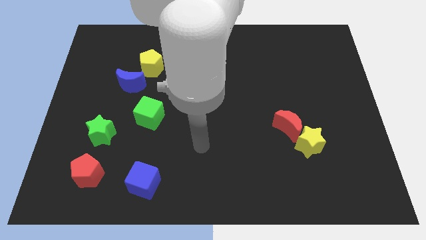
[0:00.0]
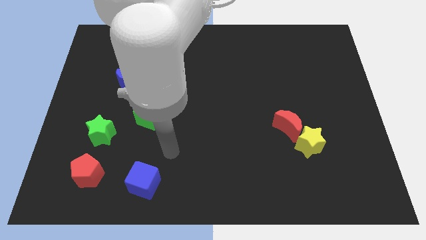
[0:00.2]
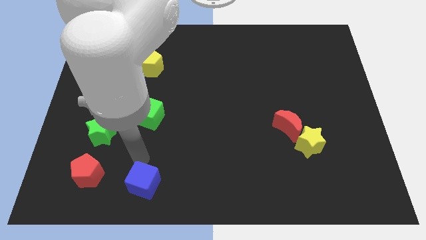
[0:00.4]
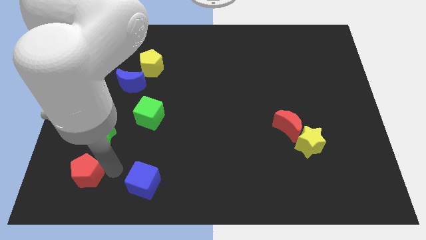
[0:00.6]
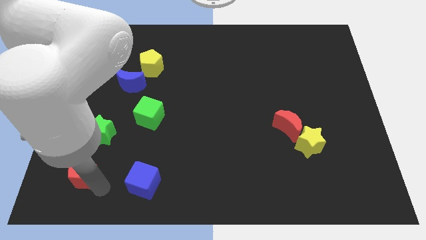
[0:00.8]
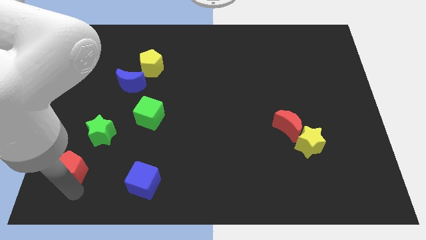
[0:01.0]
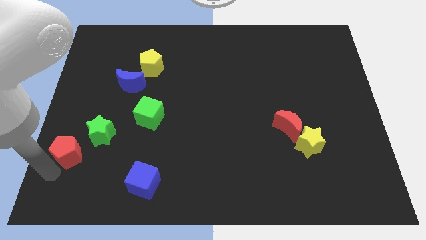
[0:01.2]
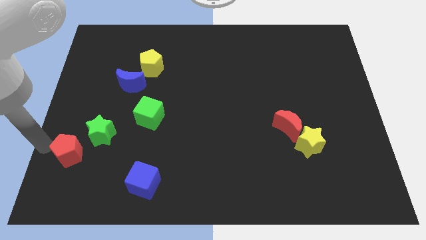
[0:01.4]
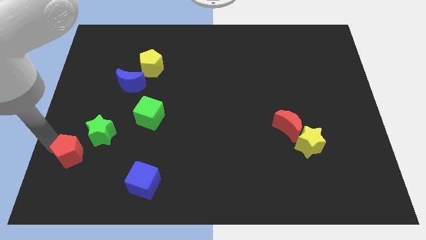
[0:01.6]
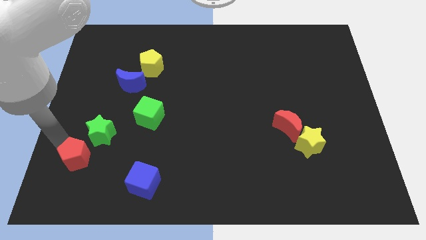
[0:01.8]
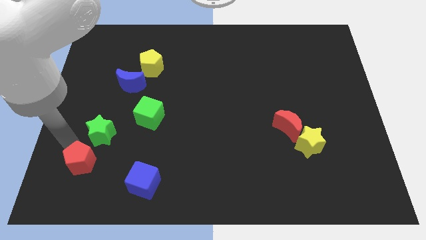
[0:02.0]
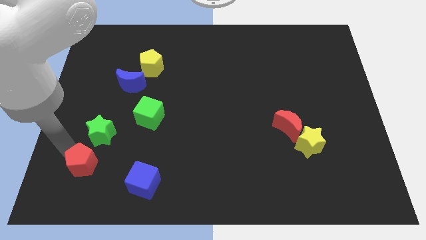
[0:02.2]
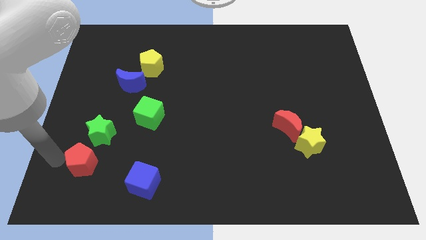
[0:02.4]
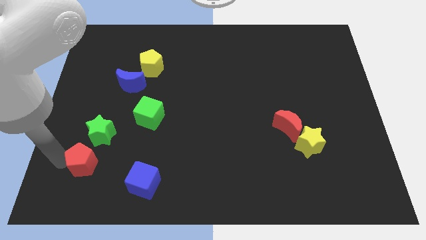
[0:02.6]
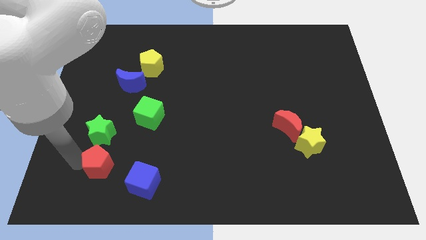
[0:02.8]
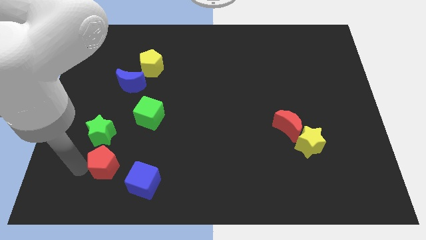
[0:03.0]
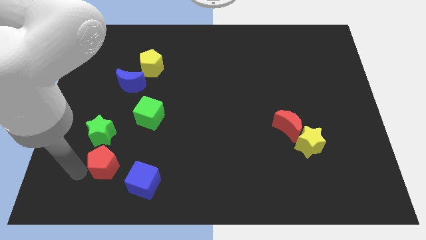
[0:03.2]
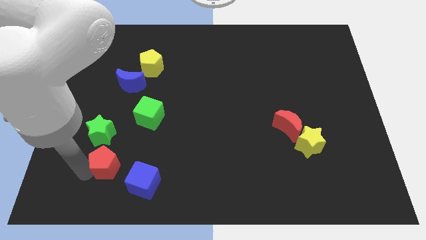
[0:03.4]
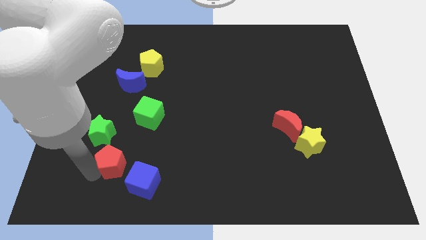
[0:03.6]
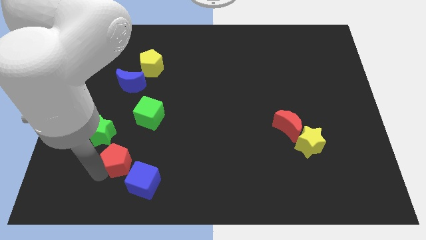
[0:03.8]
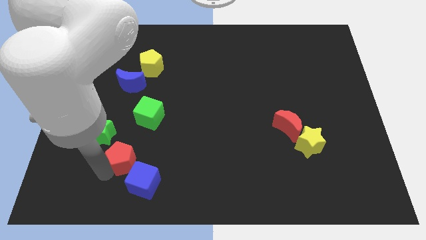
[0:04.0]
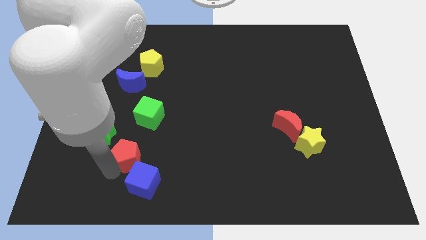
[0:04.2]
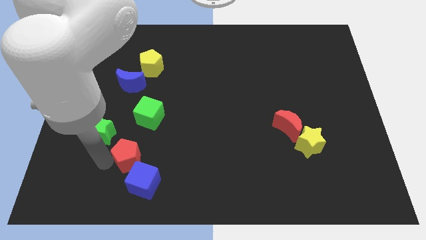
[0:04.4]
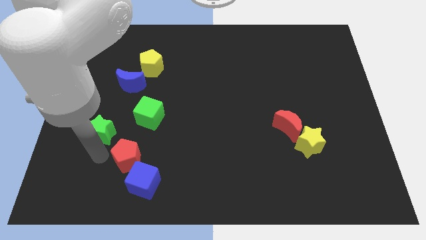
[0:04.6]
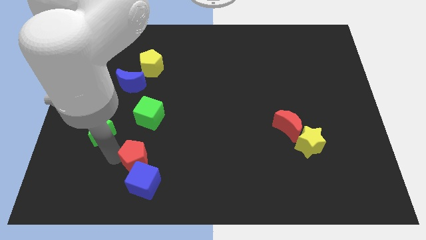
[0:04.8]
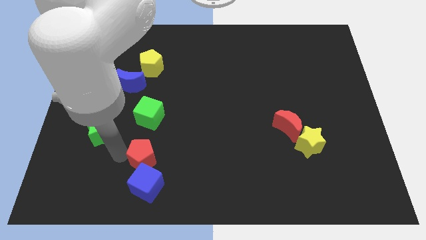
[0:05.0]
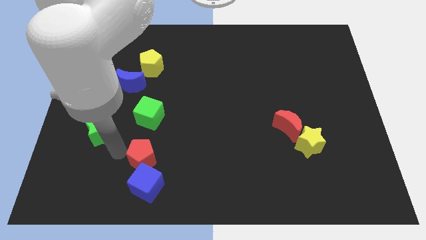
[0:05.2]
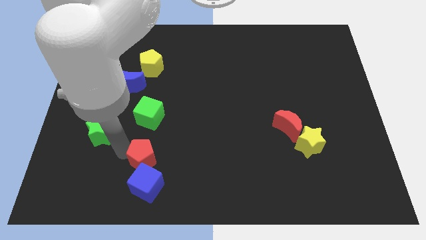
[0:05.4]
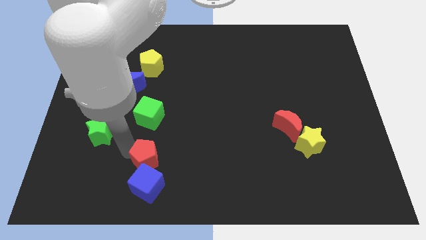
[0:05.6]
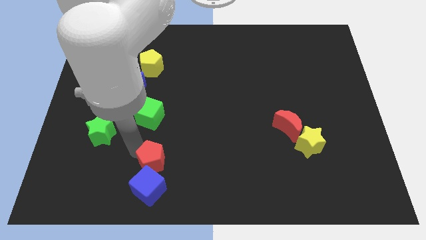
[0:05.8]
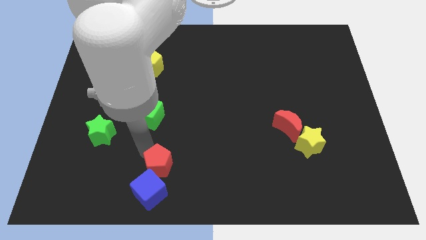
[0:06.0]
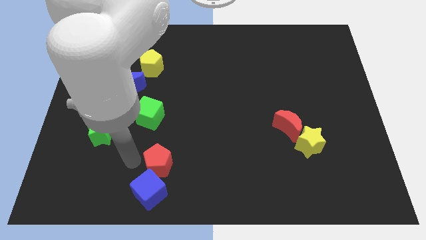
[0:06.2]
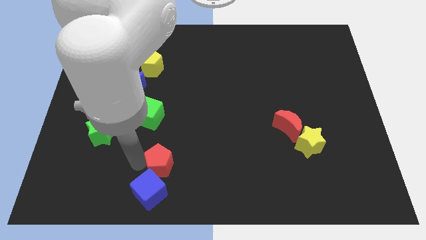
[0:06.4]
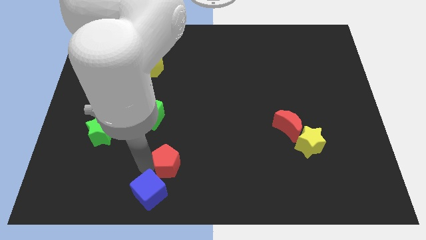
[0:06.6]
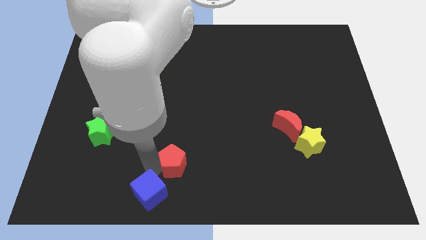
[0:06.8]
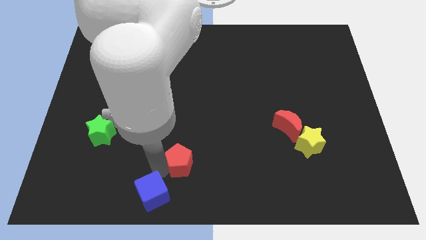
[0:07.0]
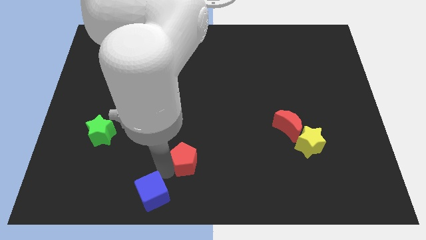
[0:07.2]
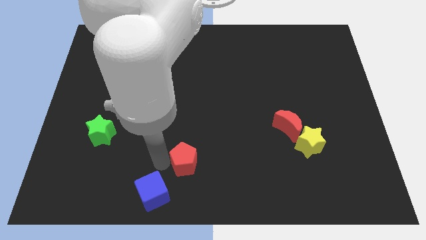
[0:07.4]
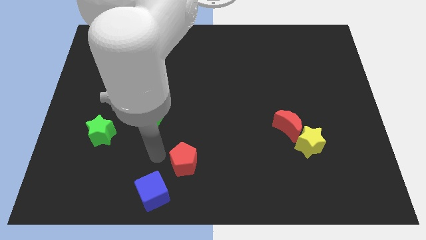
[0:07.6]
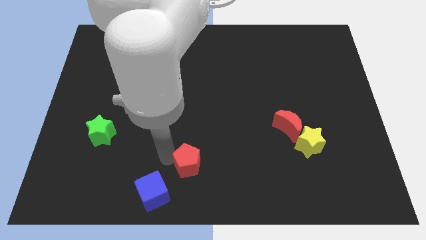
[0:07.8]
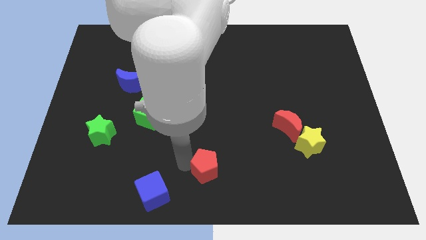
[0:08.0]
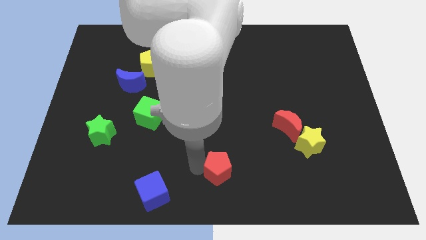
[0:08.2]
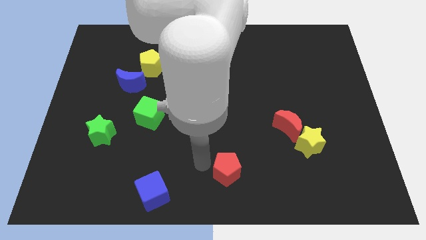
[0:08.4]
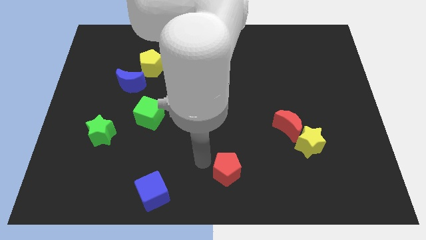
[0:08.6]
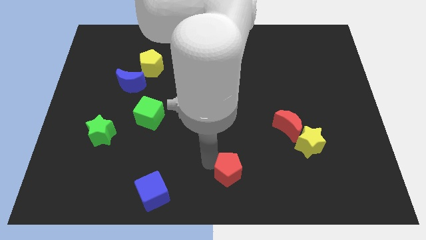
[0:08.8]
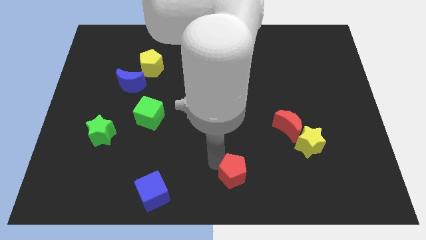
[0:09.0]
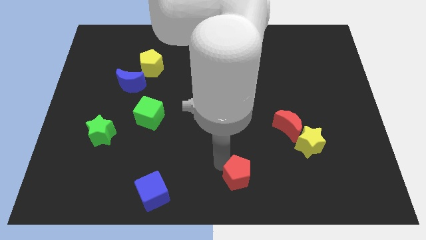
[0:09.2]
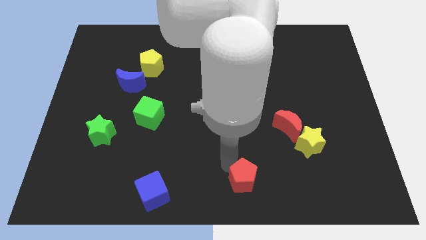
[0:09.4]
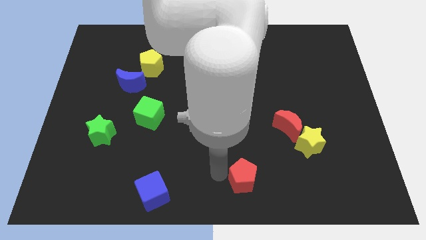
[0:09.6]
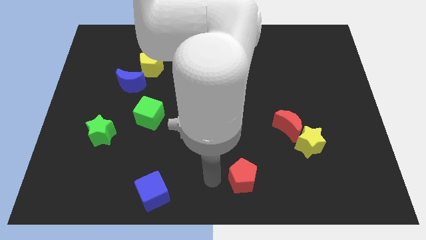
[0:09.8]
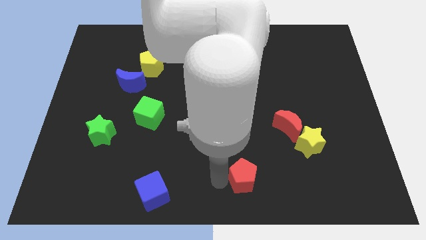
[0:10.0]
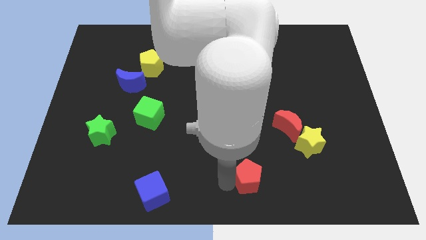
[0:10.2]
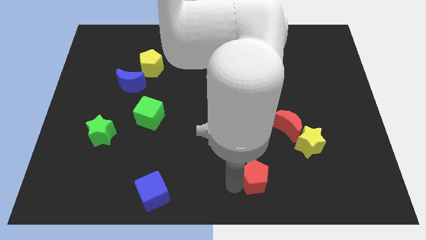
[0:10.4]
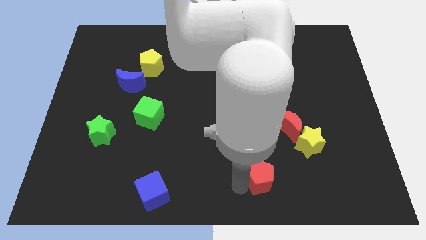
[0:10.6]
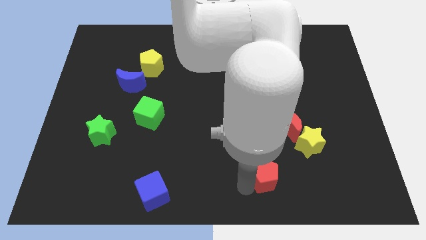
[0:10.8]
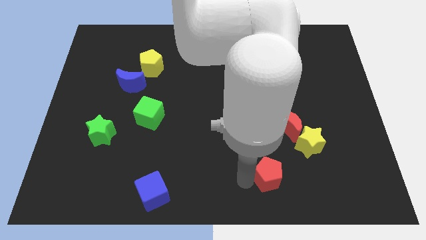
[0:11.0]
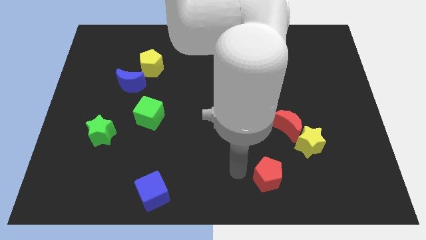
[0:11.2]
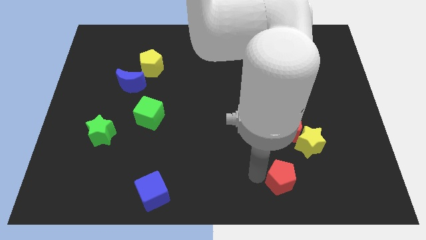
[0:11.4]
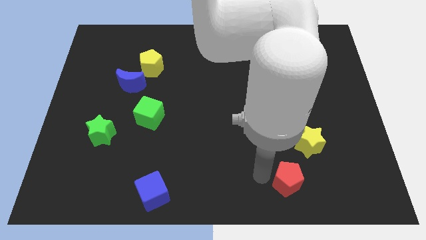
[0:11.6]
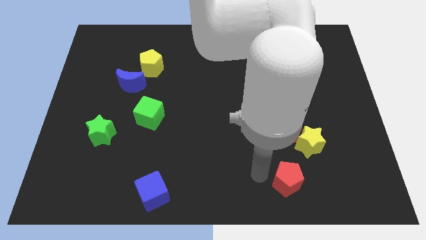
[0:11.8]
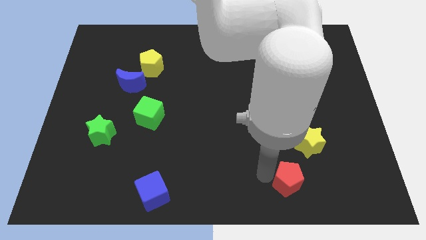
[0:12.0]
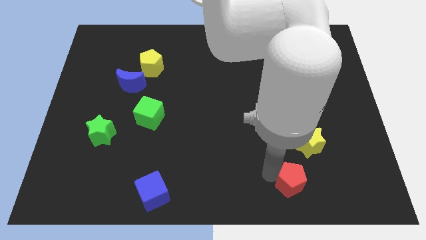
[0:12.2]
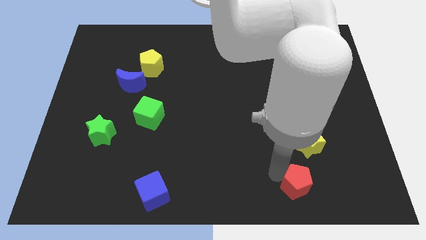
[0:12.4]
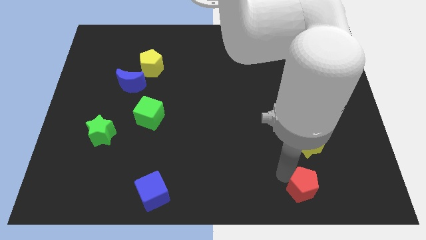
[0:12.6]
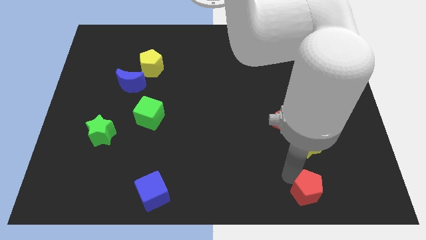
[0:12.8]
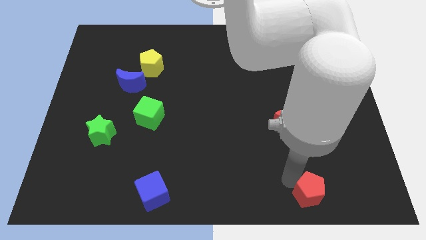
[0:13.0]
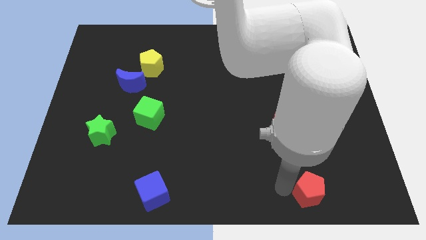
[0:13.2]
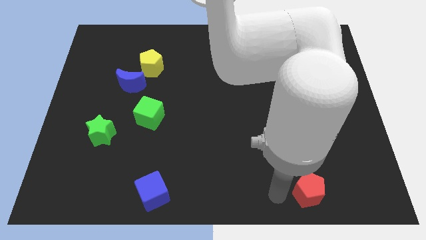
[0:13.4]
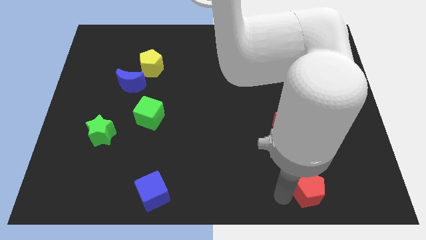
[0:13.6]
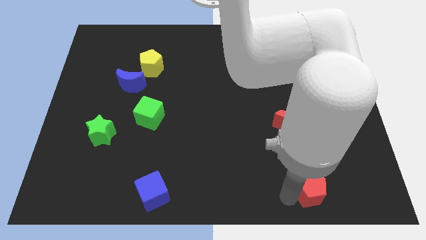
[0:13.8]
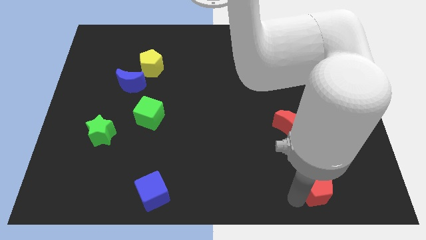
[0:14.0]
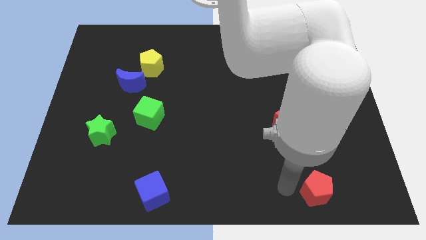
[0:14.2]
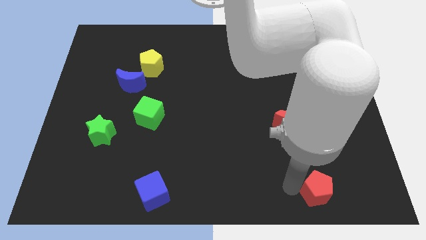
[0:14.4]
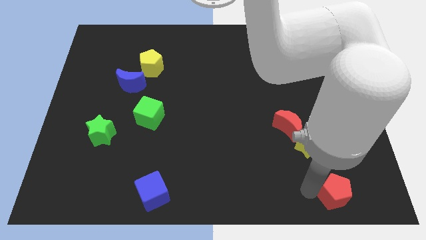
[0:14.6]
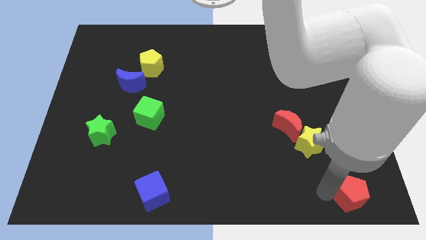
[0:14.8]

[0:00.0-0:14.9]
slide the red pentagon to the bottom right corner
